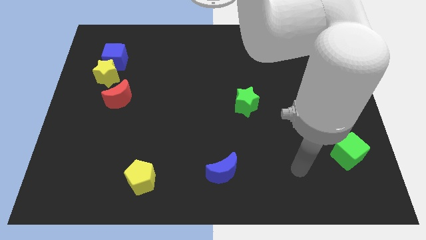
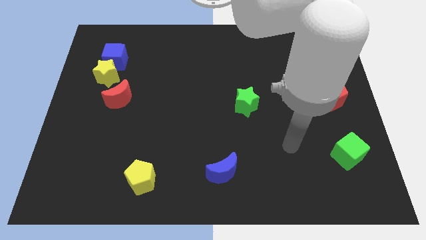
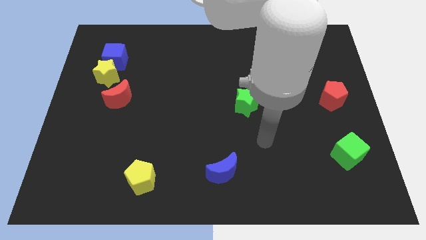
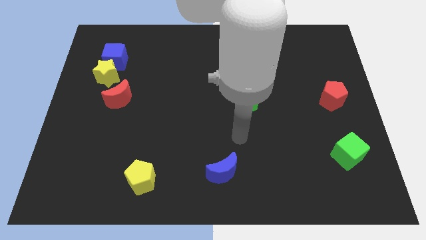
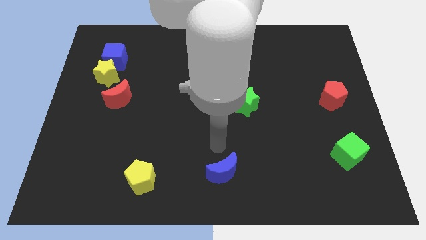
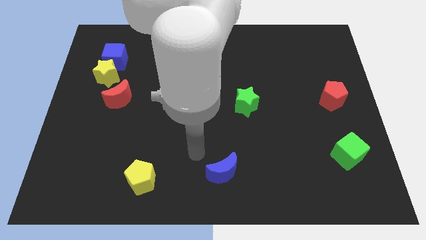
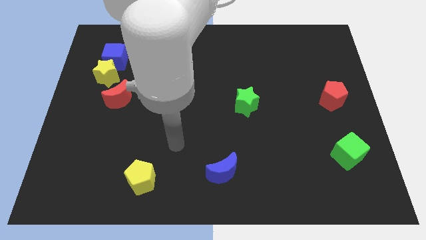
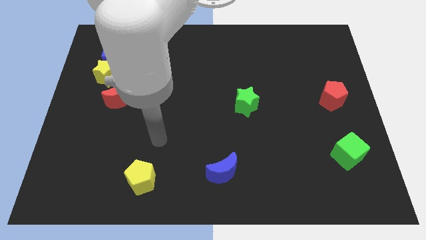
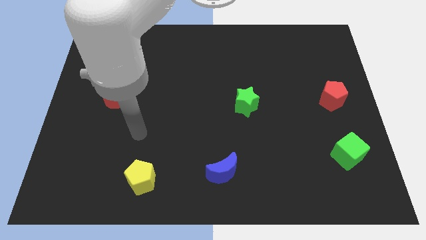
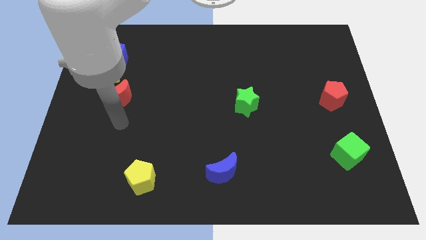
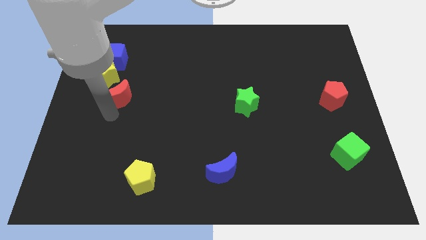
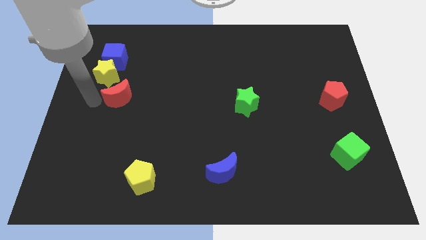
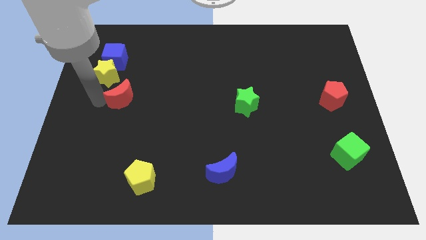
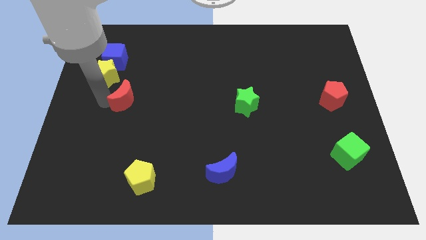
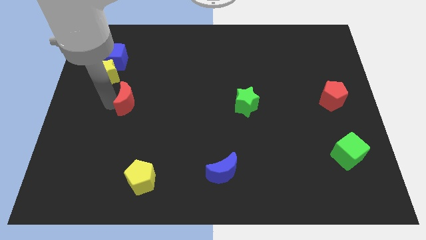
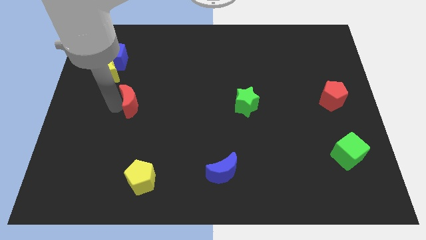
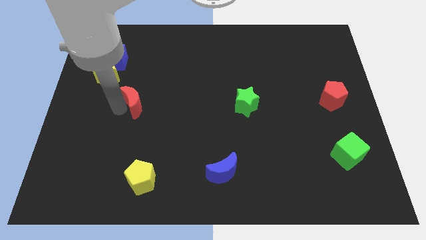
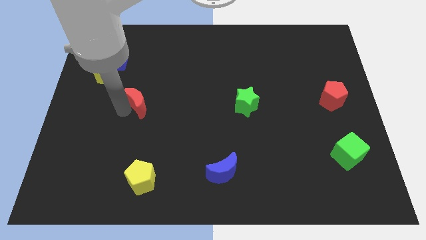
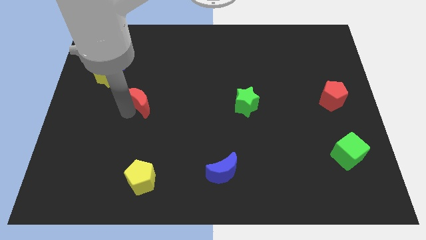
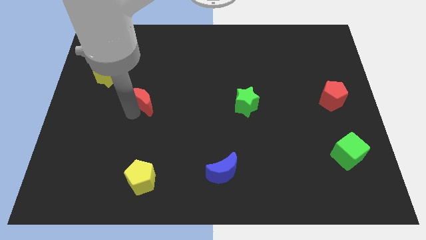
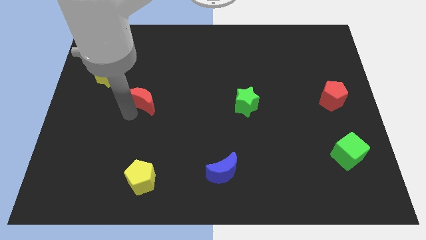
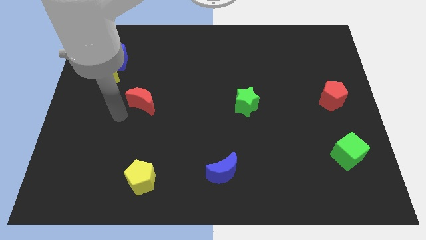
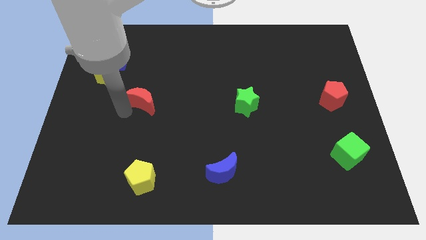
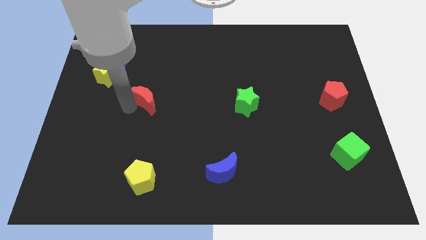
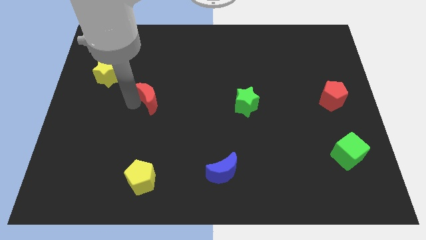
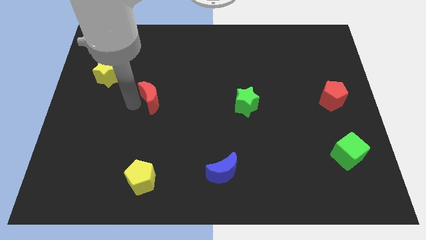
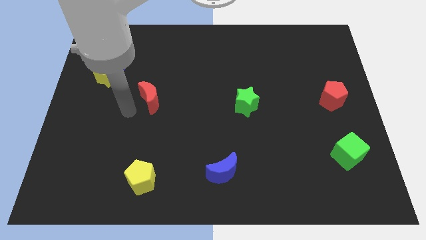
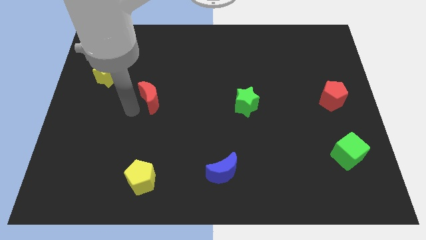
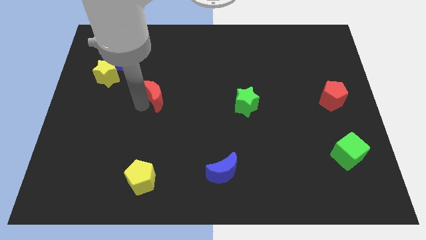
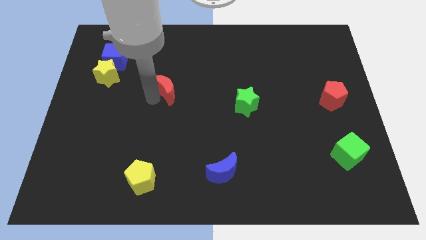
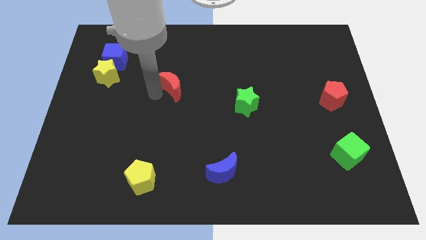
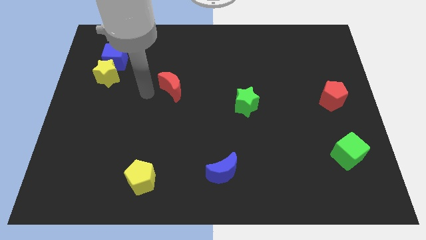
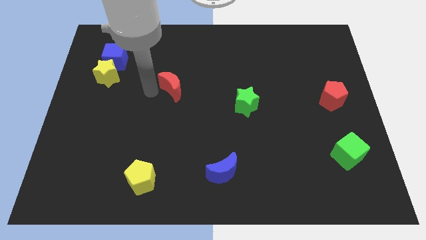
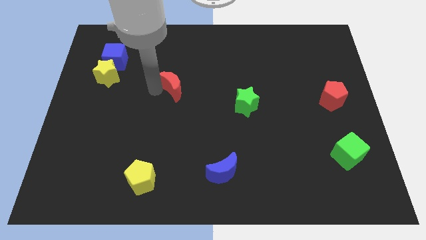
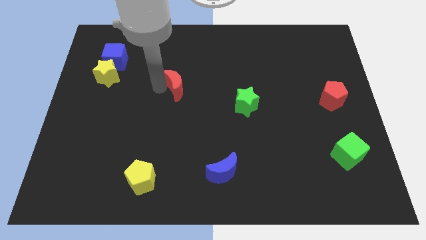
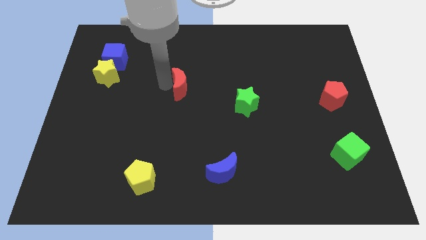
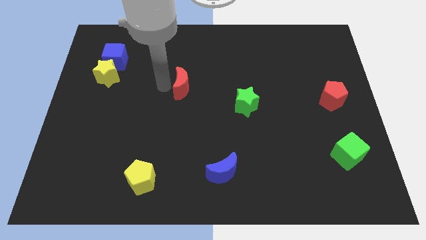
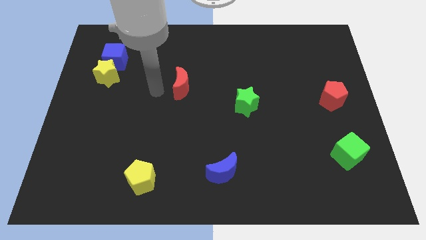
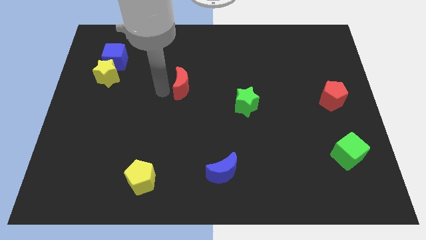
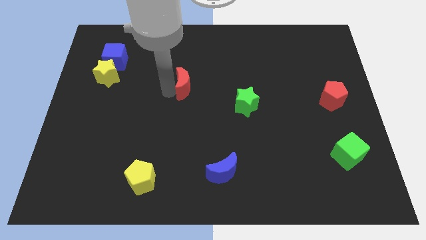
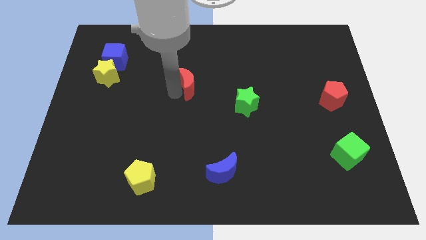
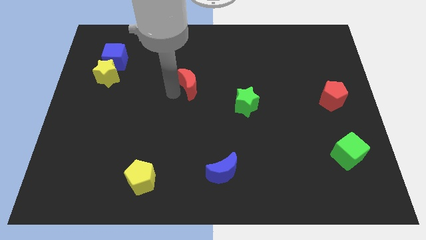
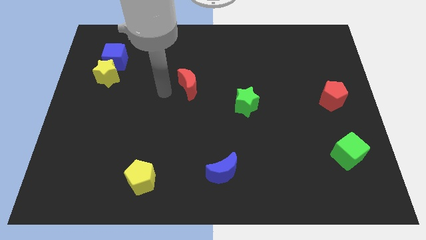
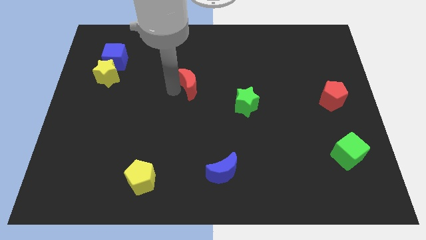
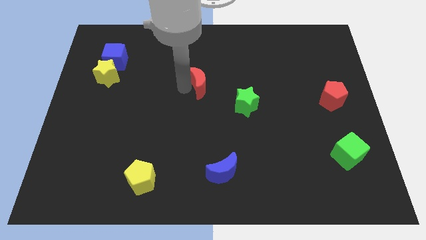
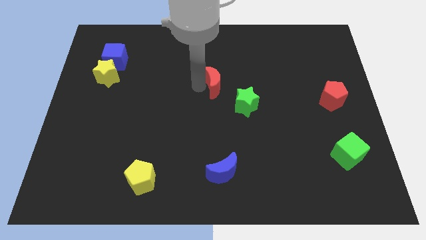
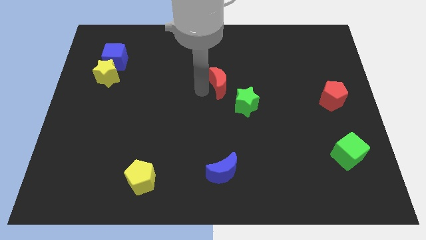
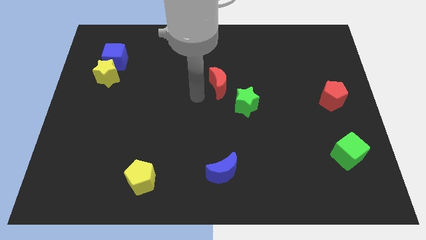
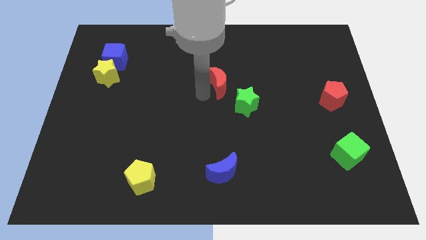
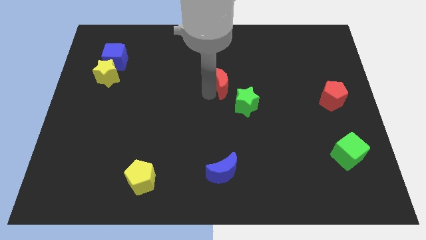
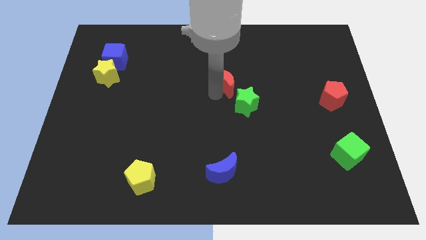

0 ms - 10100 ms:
slide the red moon to the top of the green star

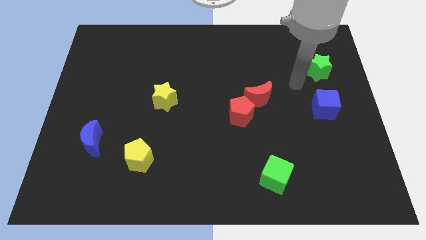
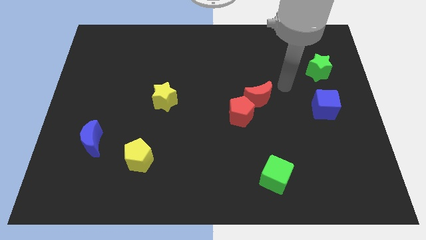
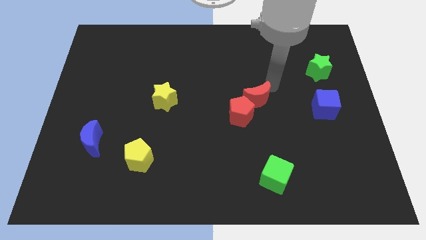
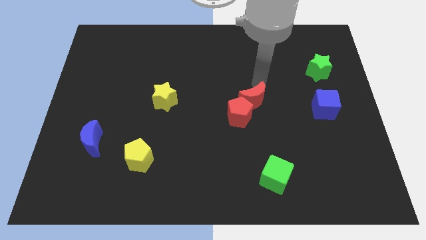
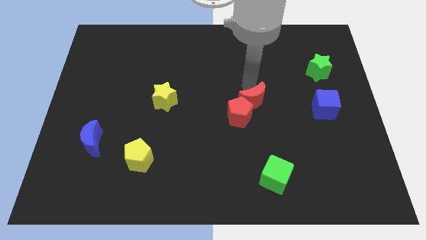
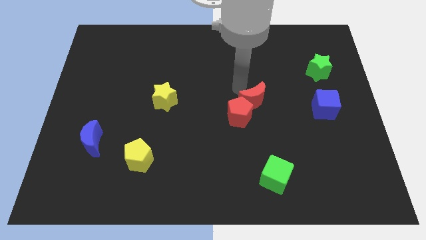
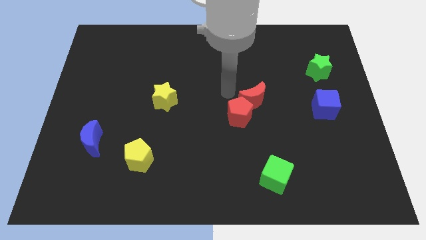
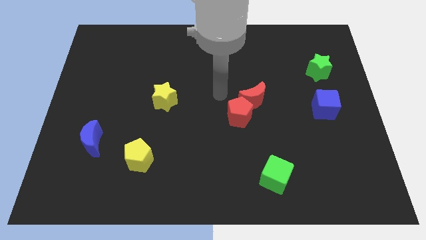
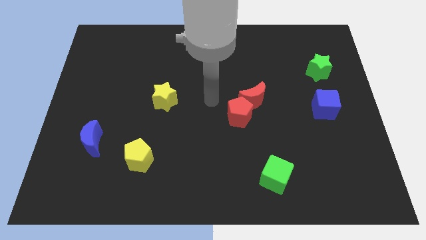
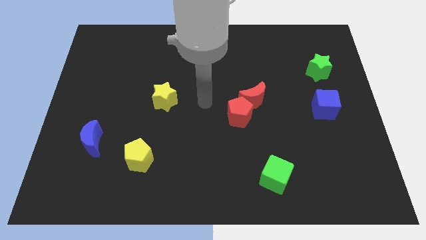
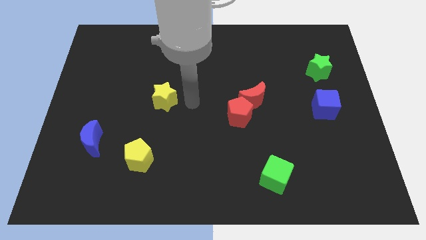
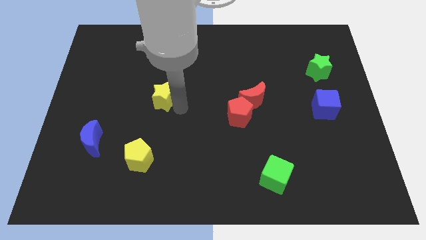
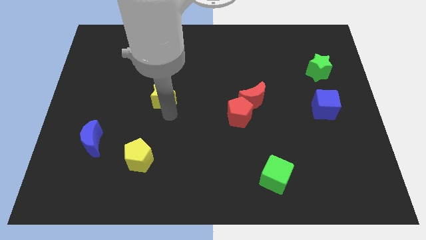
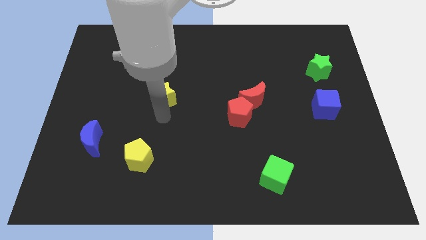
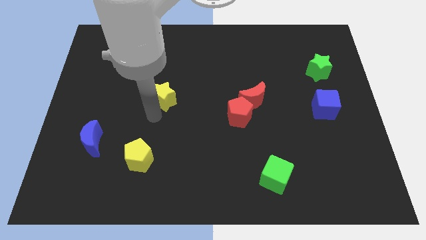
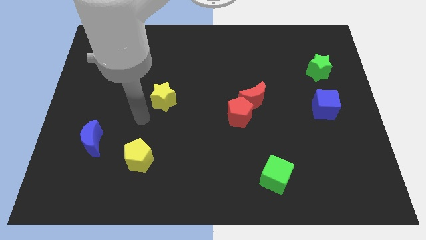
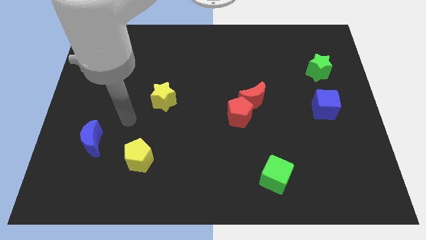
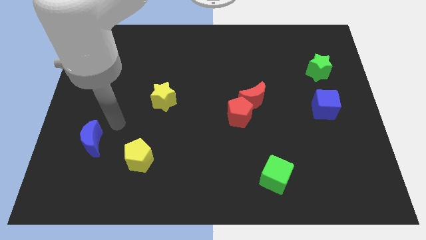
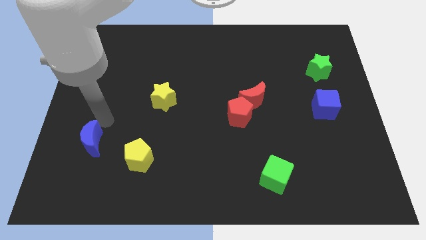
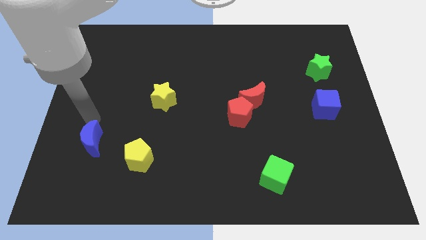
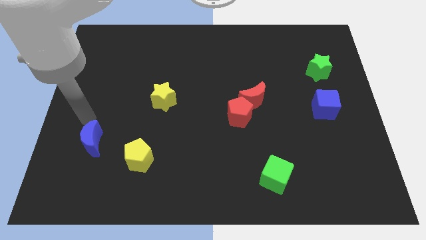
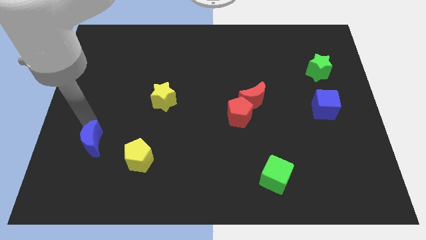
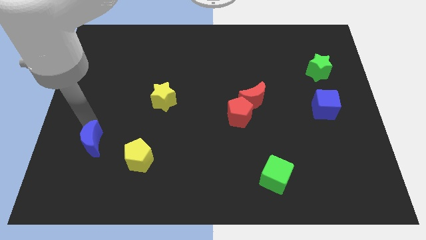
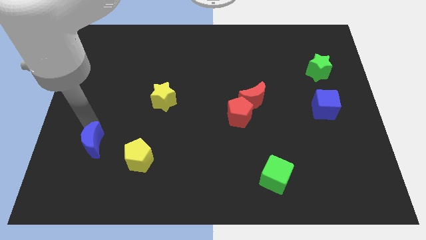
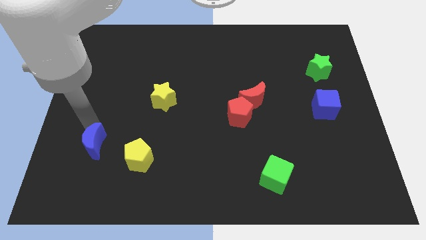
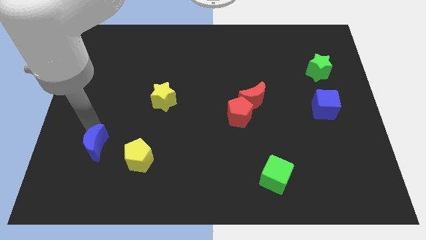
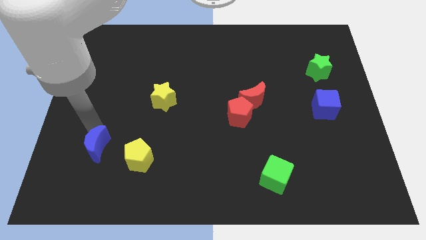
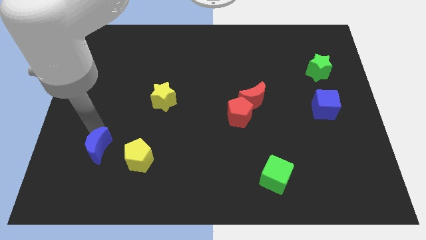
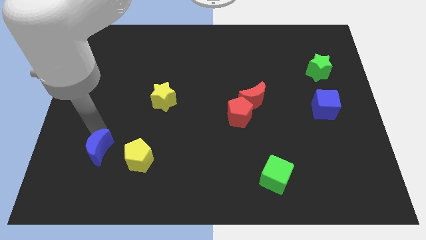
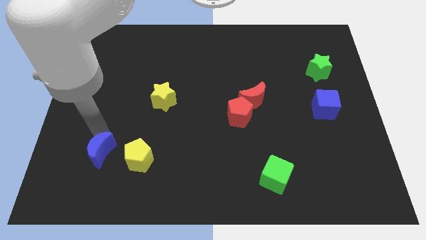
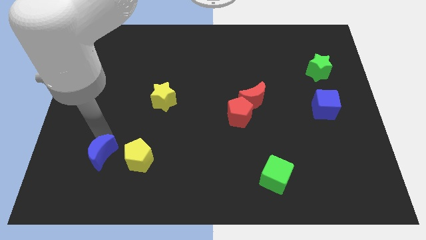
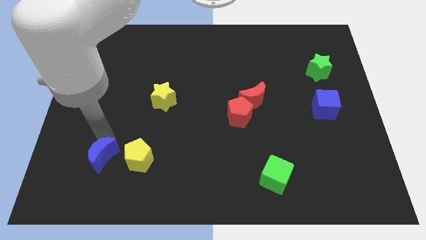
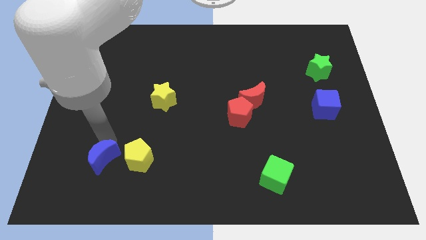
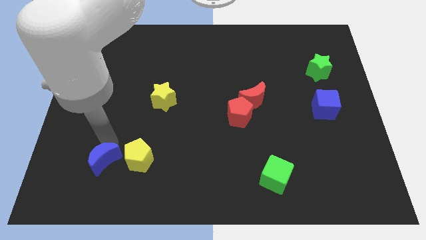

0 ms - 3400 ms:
slide the blue moon diagonally down and to the left of the yellow pentagon
